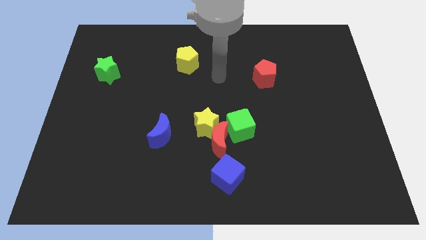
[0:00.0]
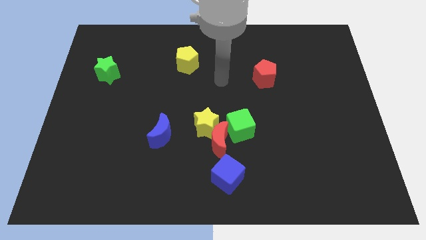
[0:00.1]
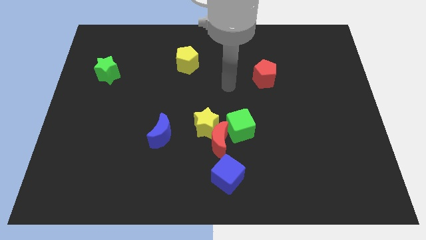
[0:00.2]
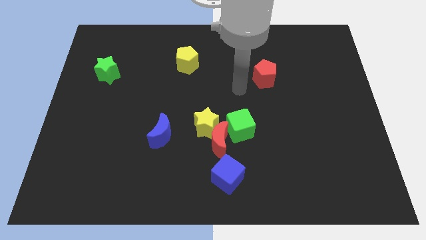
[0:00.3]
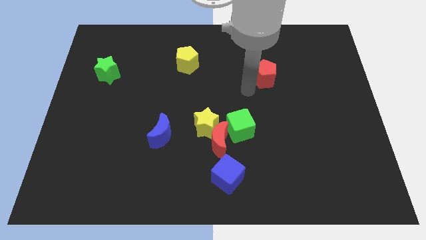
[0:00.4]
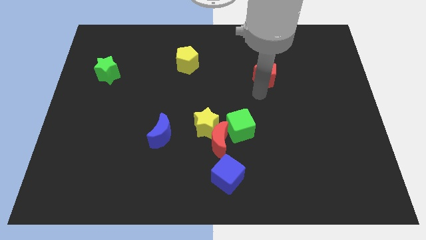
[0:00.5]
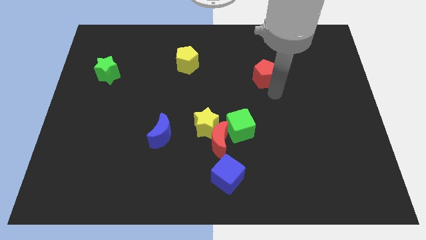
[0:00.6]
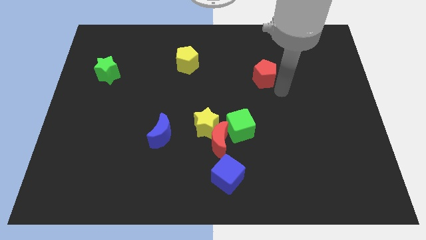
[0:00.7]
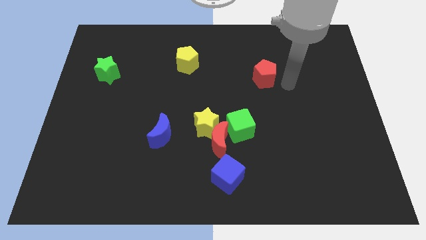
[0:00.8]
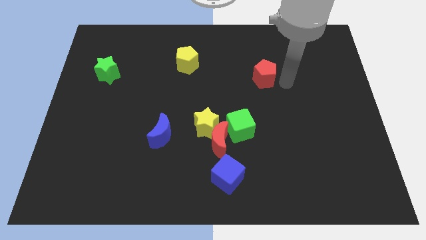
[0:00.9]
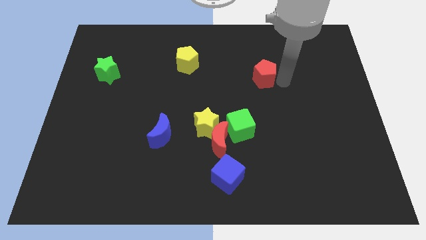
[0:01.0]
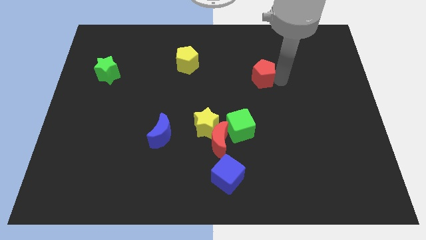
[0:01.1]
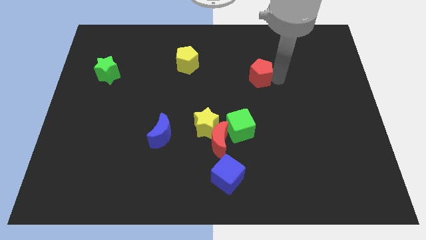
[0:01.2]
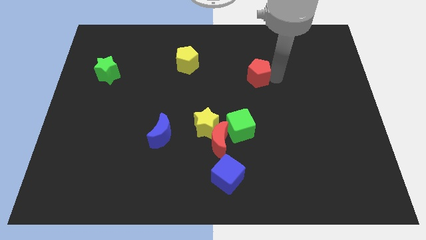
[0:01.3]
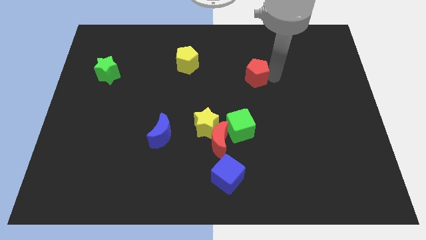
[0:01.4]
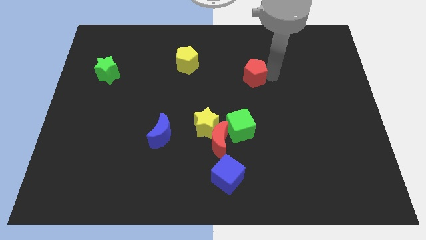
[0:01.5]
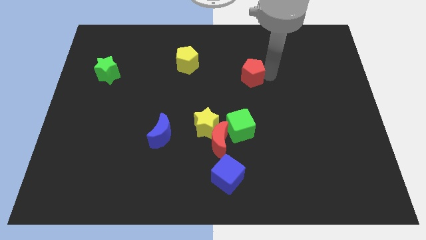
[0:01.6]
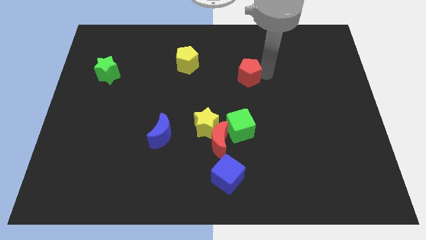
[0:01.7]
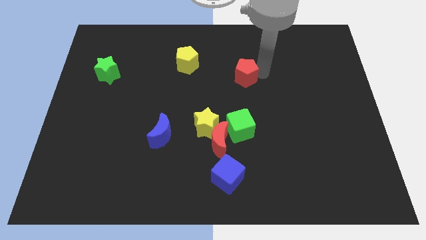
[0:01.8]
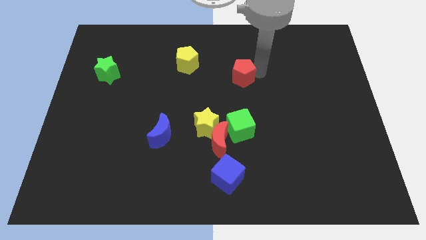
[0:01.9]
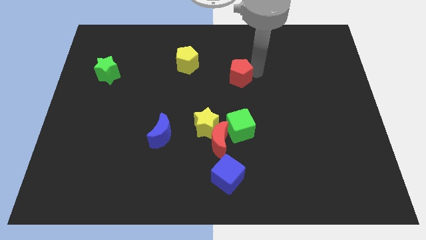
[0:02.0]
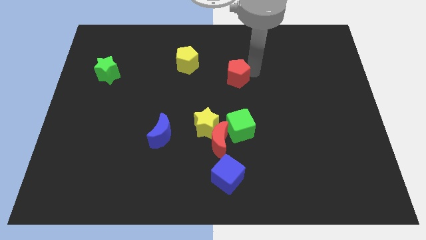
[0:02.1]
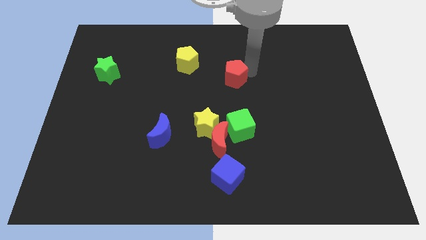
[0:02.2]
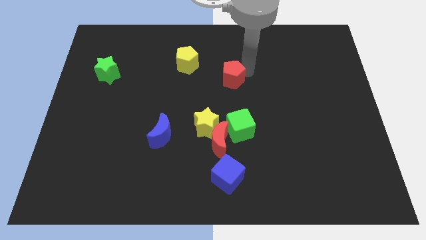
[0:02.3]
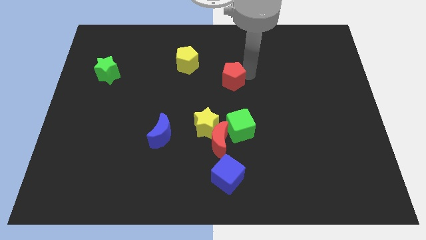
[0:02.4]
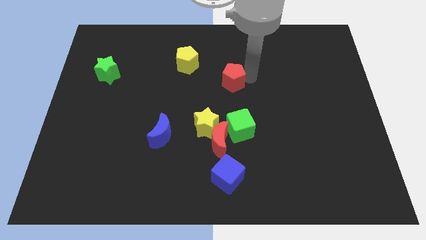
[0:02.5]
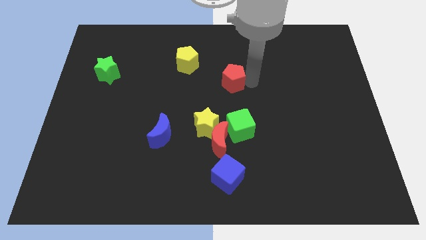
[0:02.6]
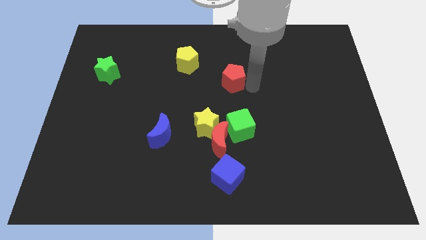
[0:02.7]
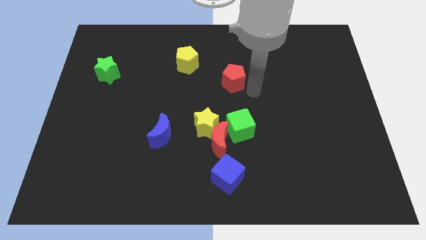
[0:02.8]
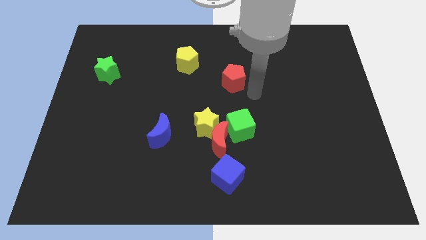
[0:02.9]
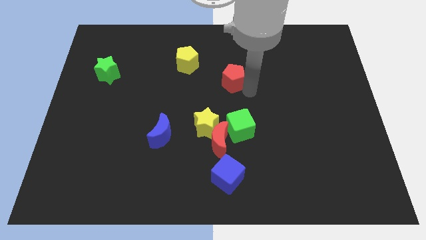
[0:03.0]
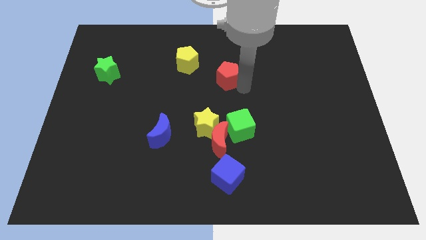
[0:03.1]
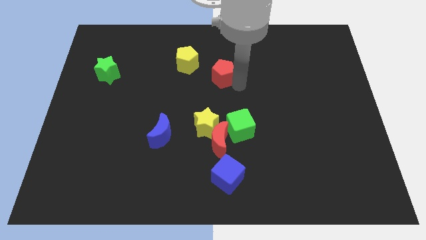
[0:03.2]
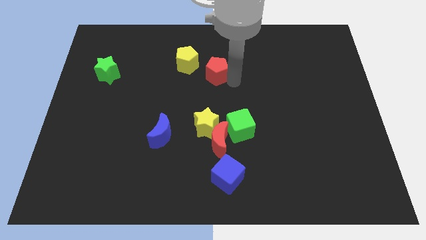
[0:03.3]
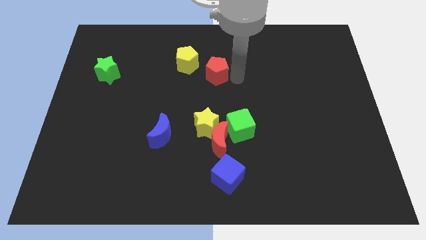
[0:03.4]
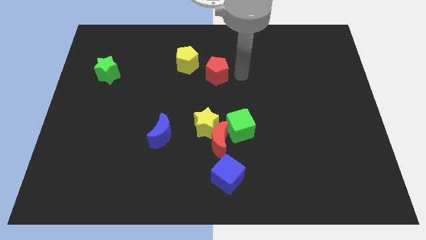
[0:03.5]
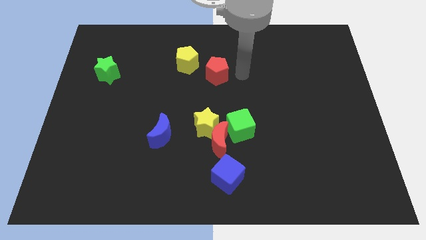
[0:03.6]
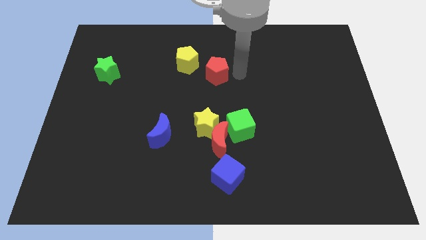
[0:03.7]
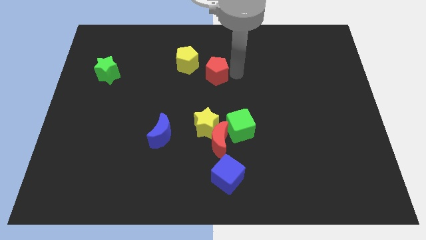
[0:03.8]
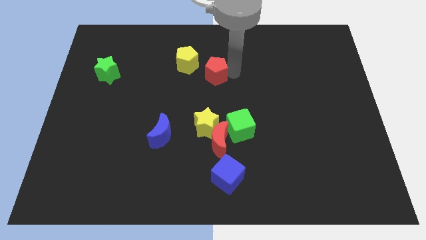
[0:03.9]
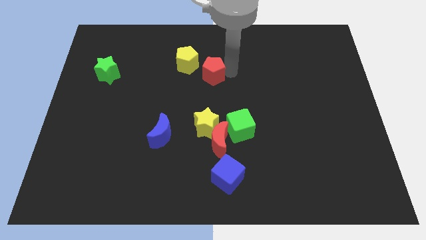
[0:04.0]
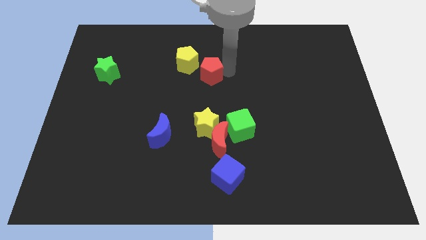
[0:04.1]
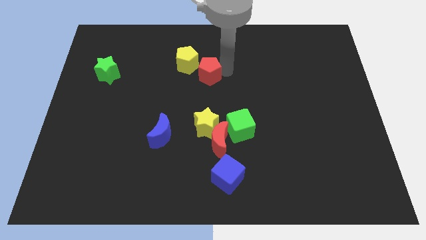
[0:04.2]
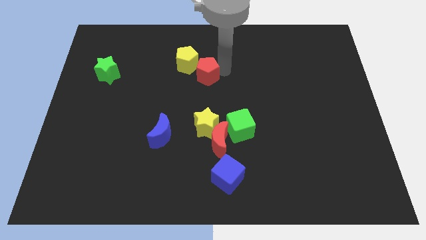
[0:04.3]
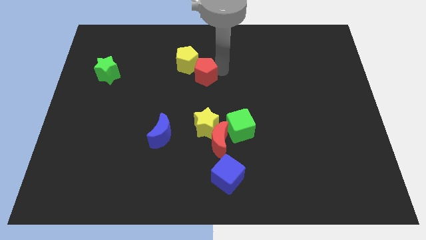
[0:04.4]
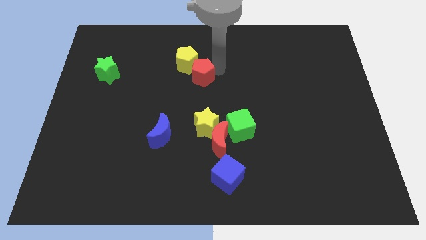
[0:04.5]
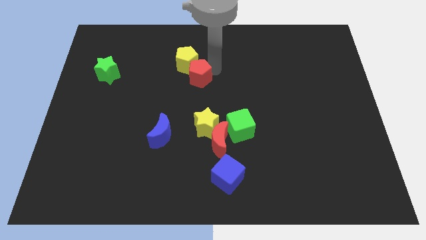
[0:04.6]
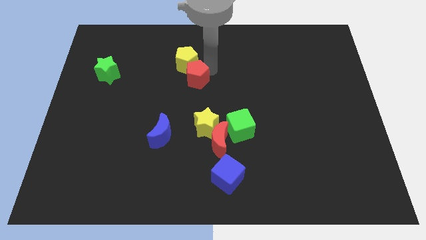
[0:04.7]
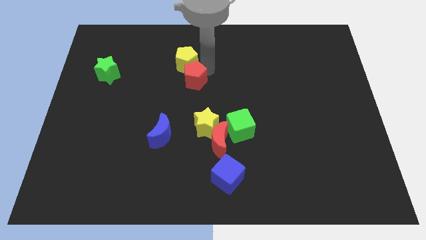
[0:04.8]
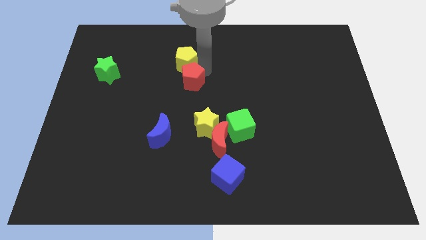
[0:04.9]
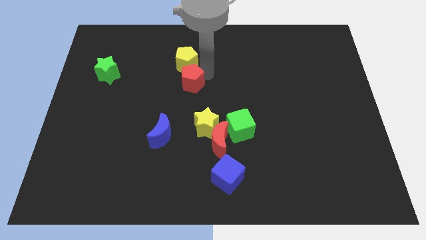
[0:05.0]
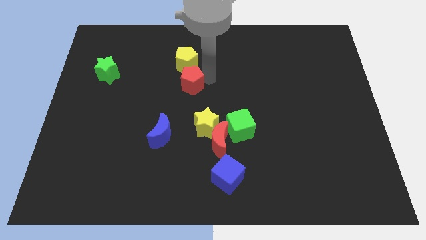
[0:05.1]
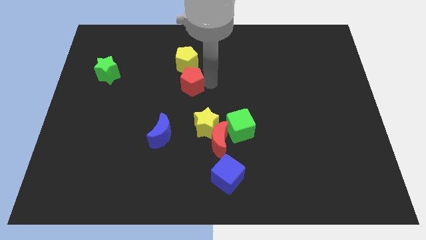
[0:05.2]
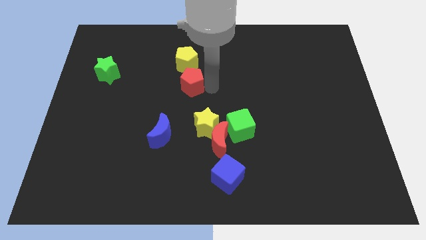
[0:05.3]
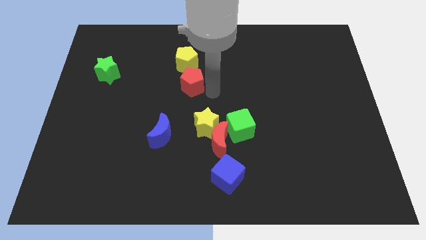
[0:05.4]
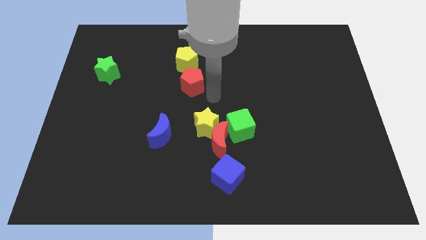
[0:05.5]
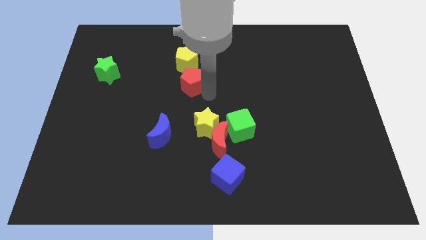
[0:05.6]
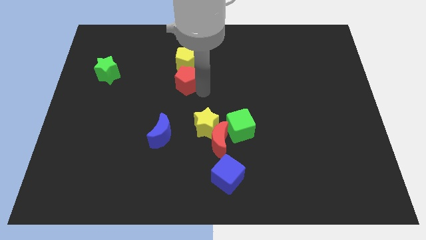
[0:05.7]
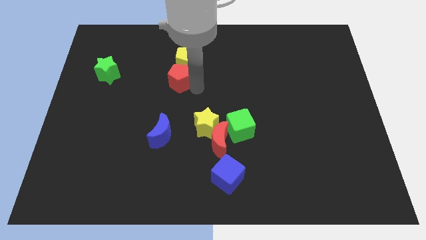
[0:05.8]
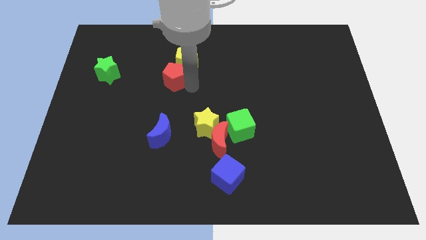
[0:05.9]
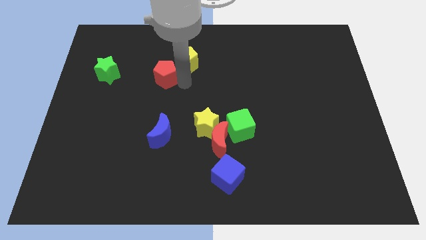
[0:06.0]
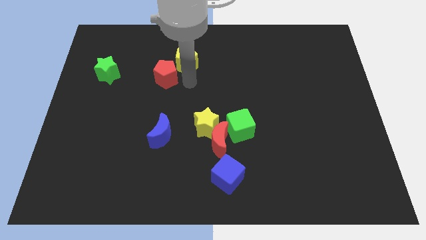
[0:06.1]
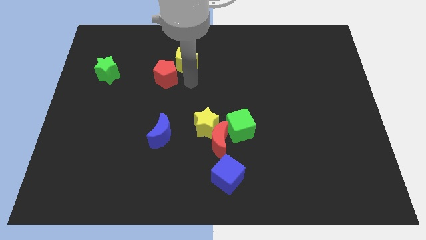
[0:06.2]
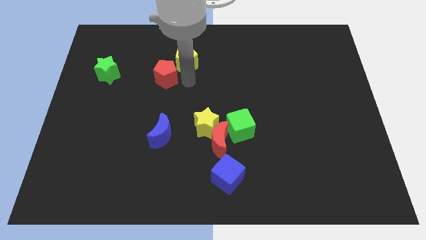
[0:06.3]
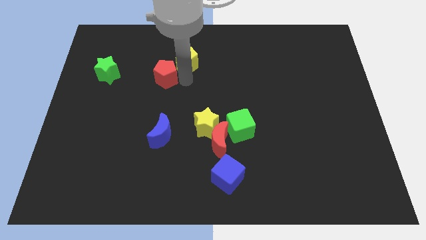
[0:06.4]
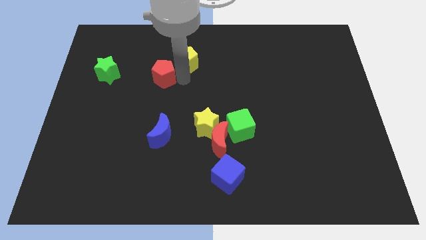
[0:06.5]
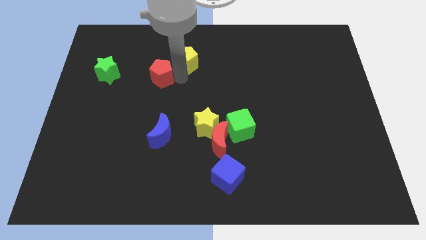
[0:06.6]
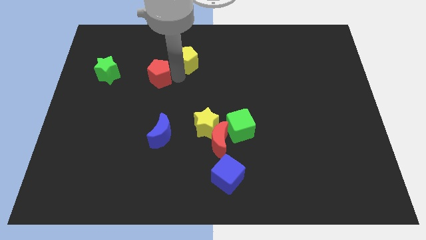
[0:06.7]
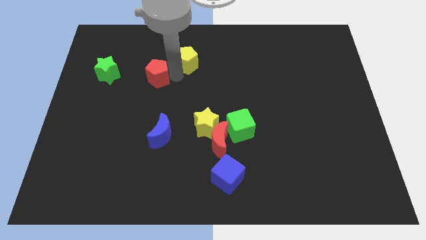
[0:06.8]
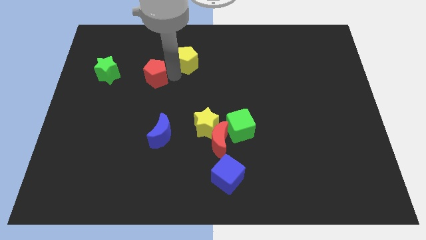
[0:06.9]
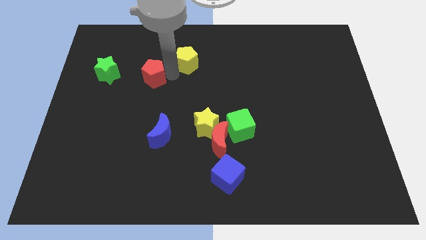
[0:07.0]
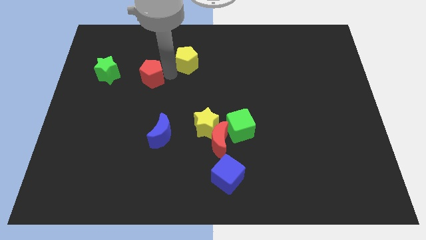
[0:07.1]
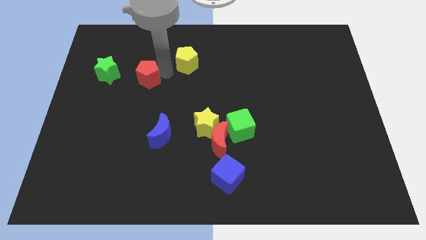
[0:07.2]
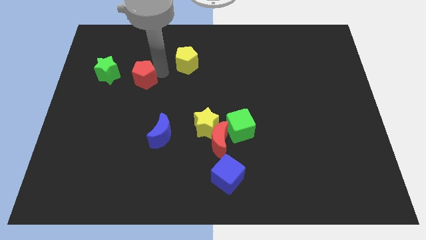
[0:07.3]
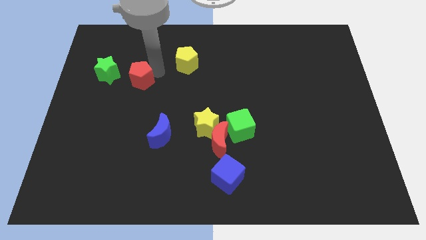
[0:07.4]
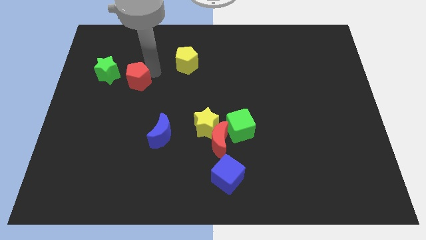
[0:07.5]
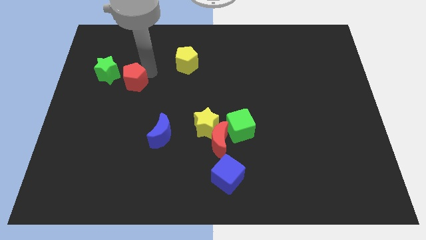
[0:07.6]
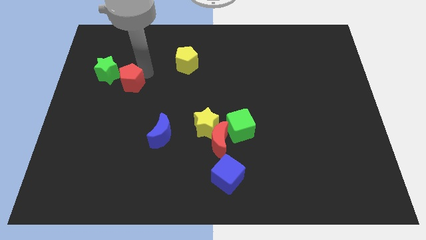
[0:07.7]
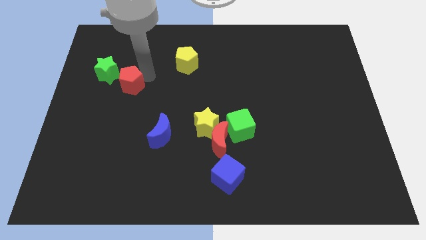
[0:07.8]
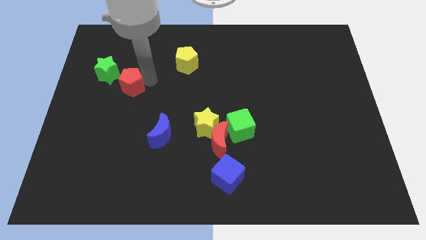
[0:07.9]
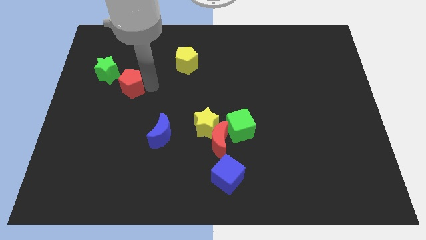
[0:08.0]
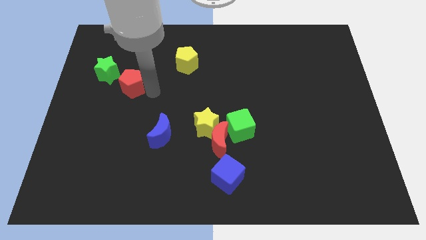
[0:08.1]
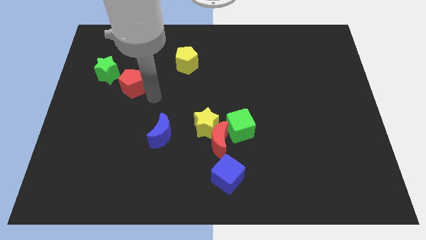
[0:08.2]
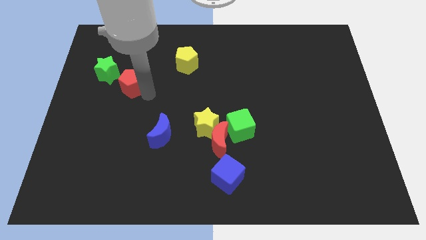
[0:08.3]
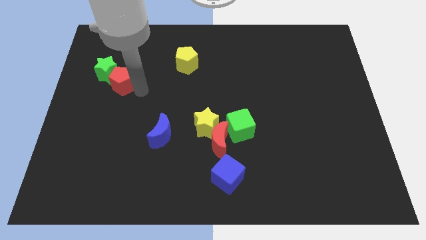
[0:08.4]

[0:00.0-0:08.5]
move the red pentagon to the green star
